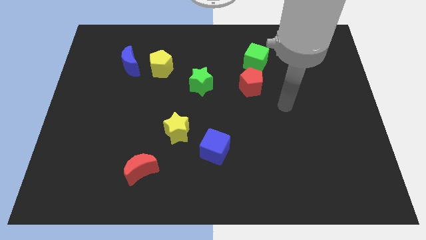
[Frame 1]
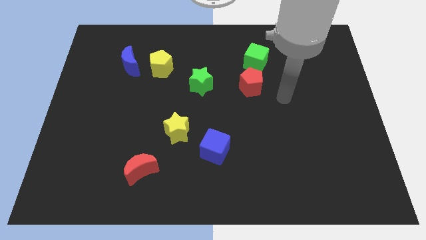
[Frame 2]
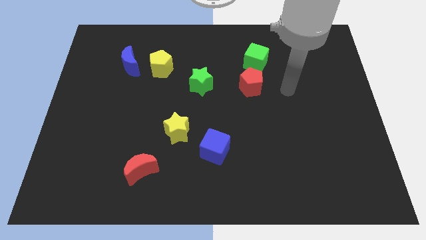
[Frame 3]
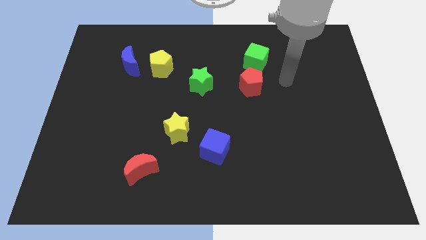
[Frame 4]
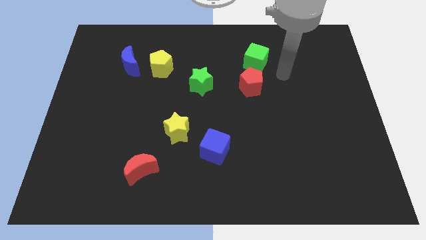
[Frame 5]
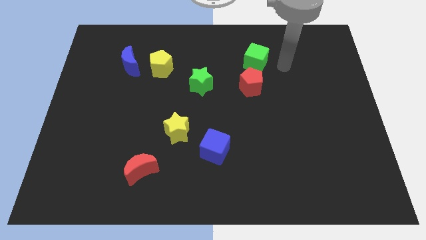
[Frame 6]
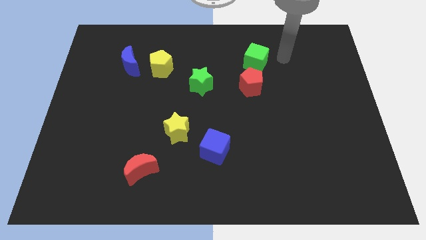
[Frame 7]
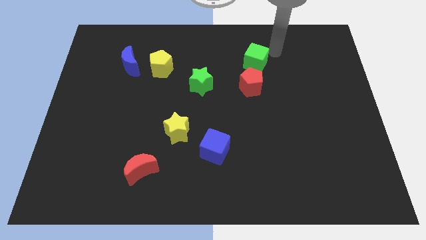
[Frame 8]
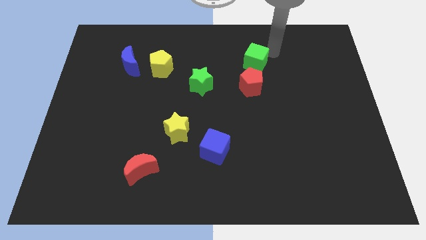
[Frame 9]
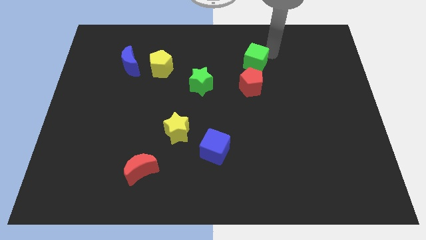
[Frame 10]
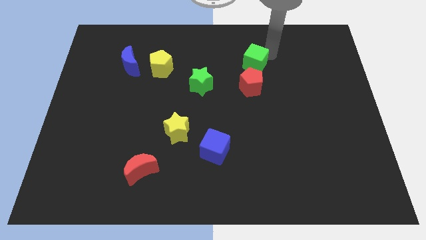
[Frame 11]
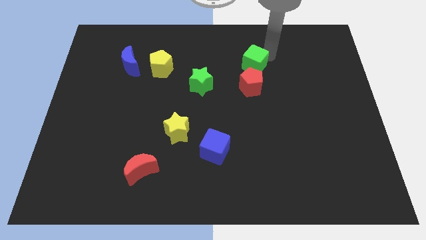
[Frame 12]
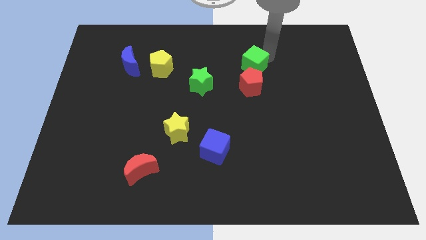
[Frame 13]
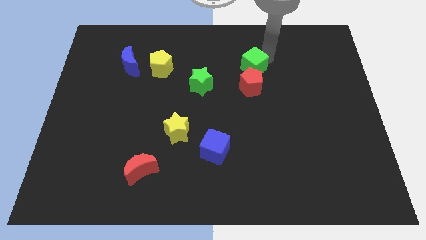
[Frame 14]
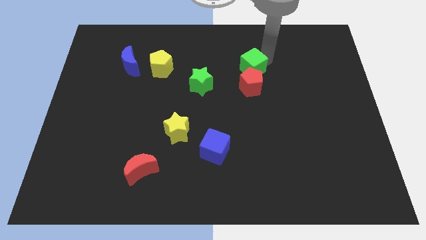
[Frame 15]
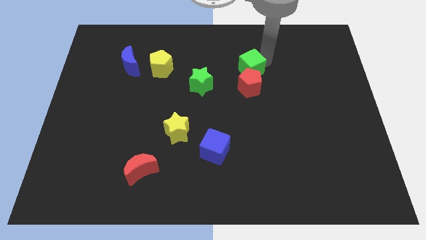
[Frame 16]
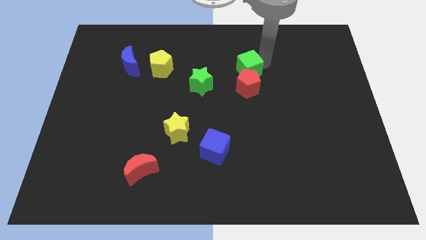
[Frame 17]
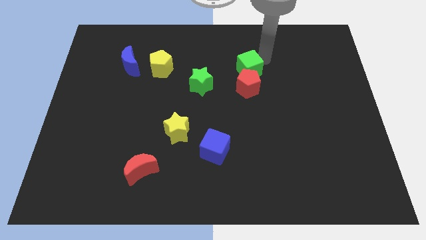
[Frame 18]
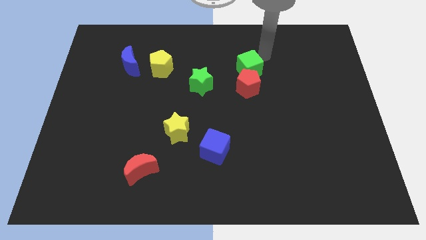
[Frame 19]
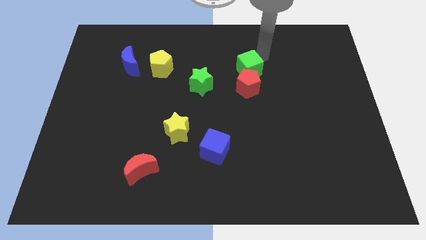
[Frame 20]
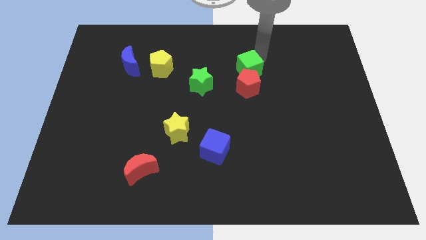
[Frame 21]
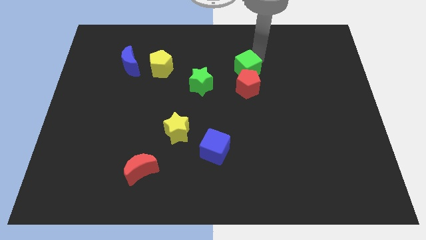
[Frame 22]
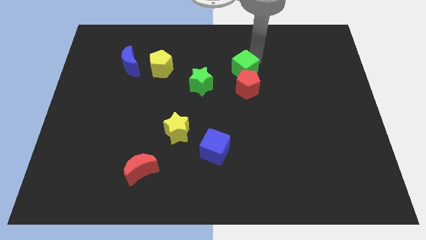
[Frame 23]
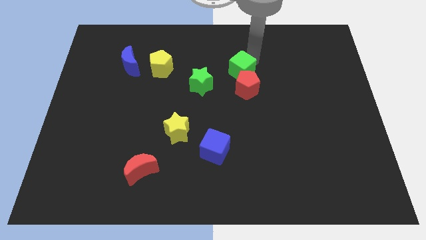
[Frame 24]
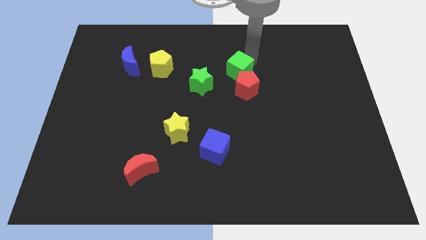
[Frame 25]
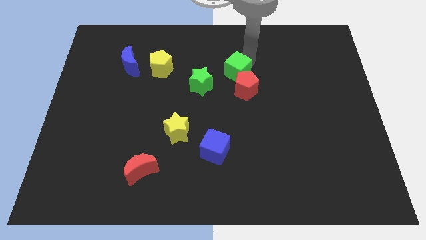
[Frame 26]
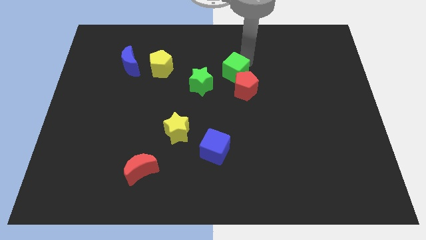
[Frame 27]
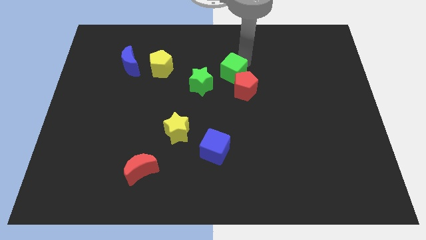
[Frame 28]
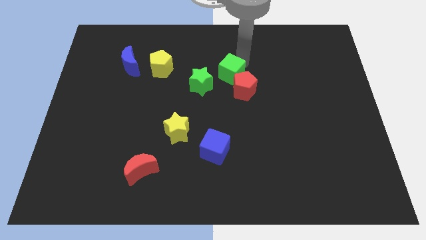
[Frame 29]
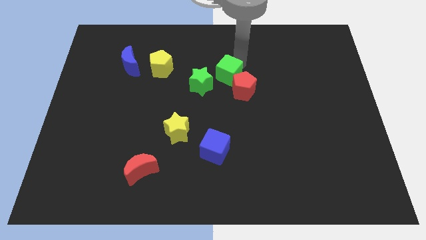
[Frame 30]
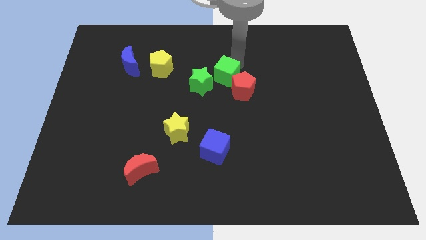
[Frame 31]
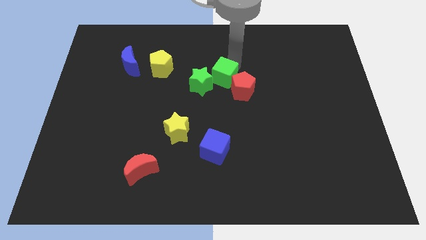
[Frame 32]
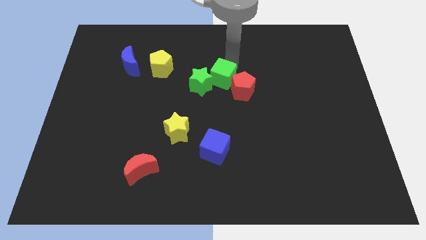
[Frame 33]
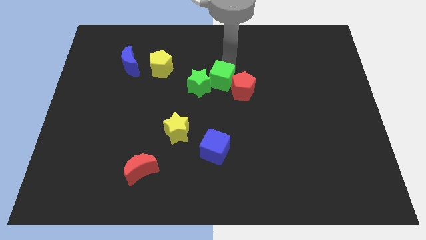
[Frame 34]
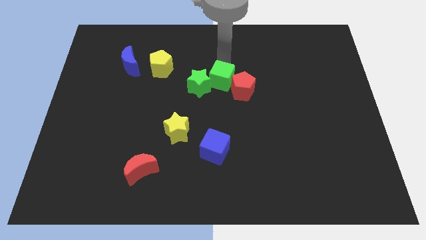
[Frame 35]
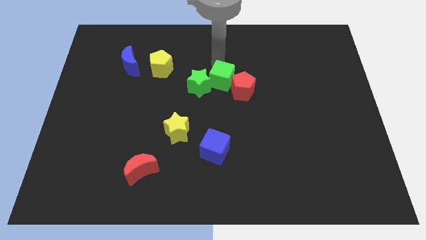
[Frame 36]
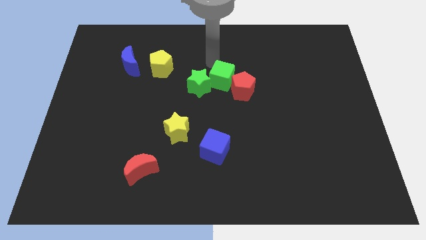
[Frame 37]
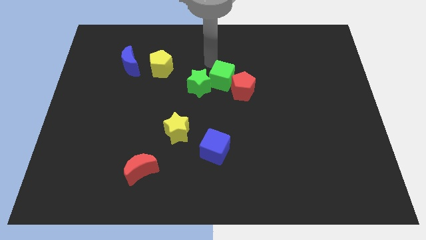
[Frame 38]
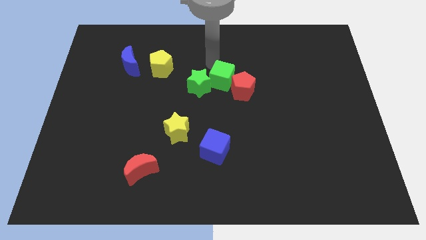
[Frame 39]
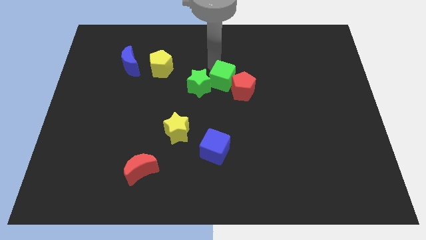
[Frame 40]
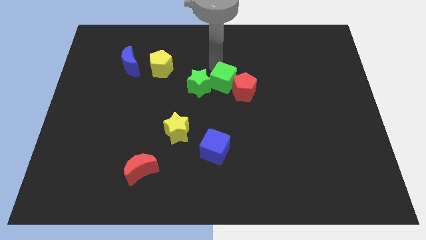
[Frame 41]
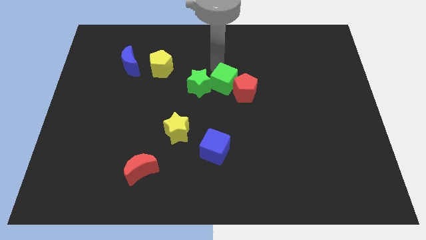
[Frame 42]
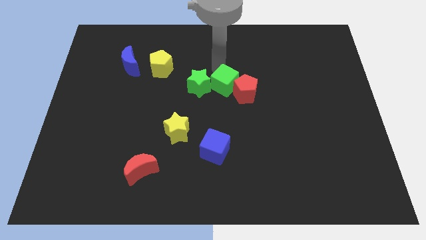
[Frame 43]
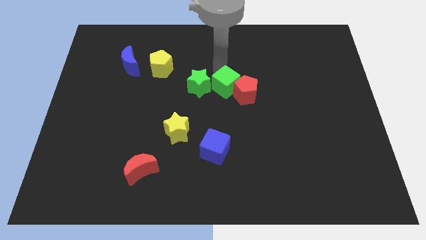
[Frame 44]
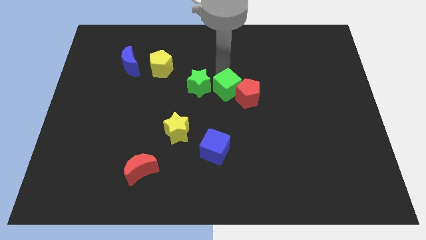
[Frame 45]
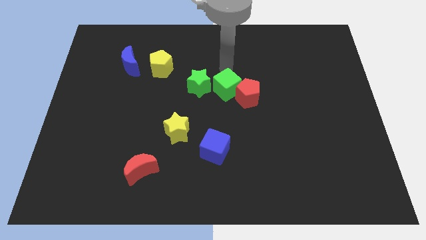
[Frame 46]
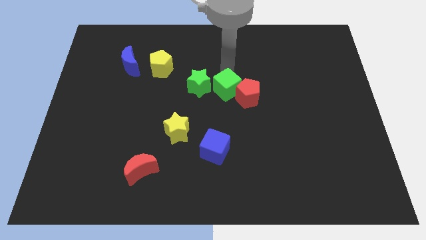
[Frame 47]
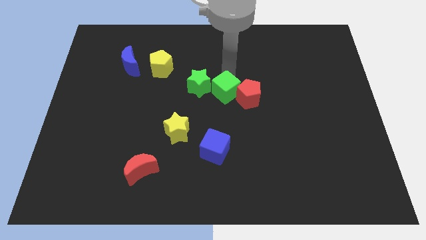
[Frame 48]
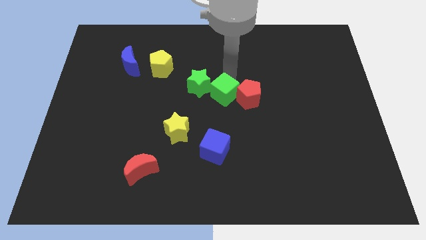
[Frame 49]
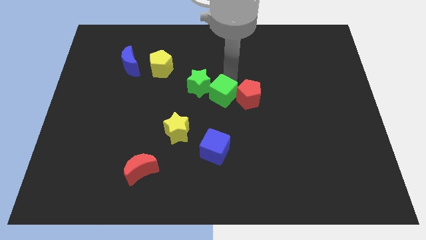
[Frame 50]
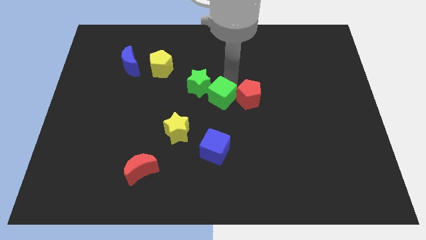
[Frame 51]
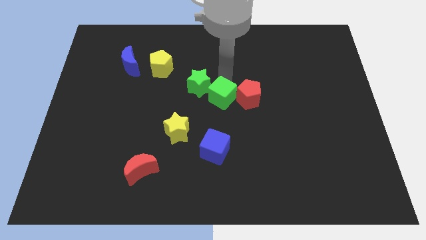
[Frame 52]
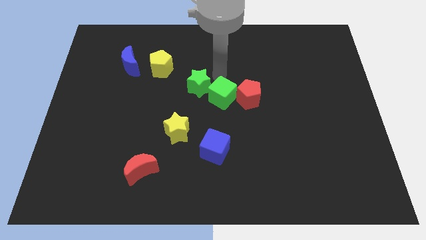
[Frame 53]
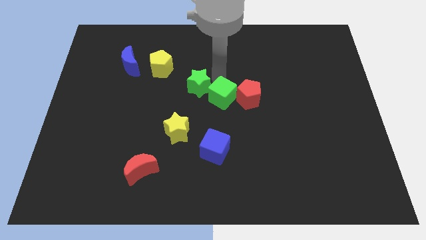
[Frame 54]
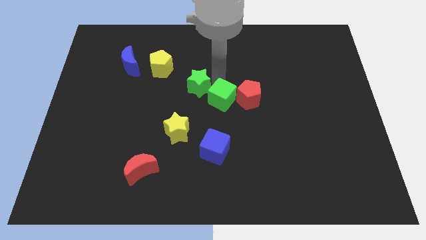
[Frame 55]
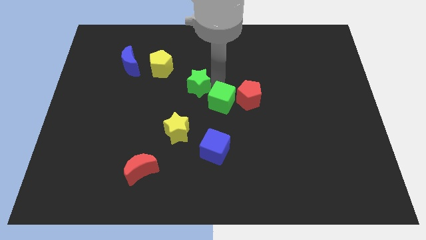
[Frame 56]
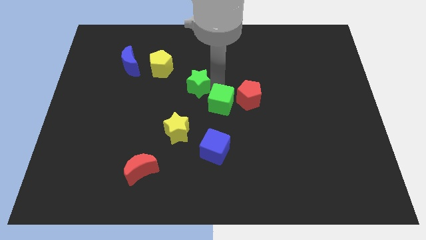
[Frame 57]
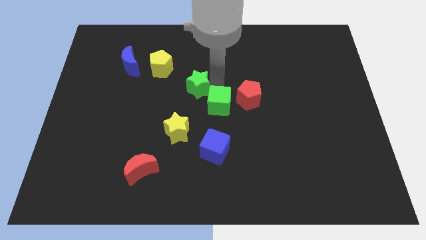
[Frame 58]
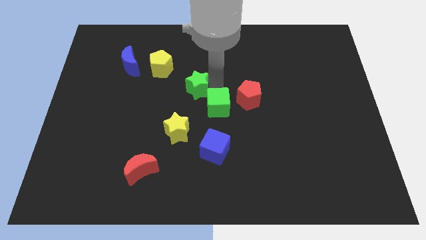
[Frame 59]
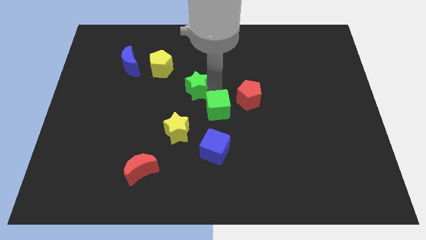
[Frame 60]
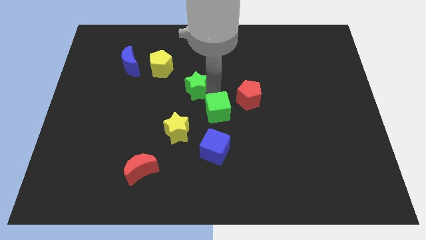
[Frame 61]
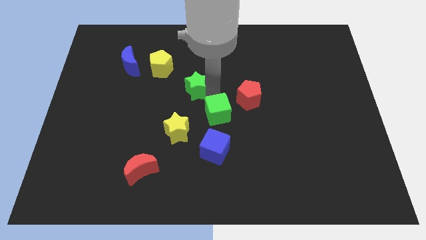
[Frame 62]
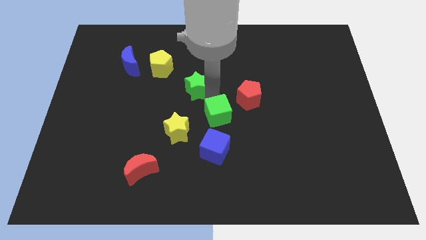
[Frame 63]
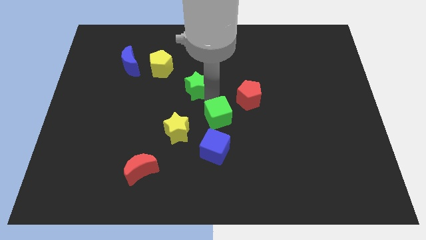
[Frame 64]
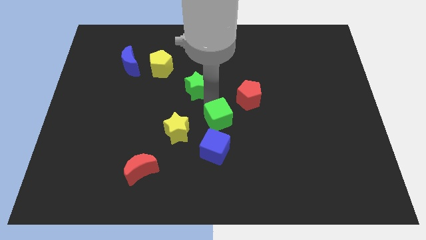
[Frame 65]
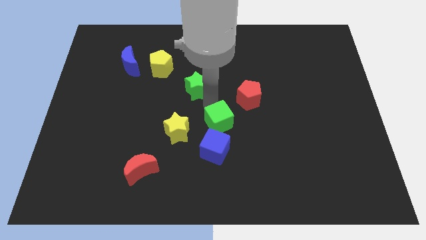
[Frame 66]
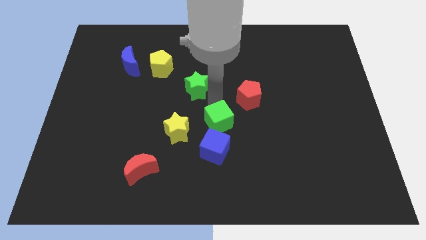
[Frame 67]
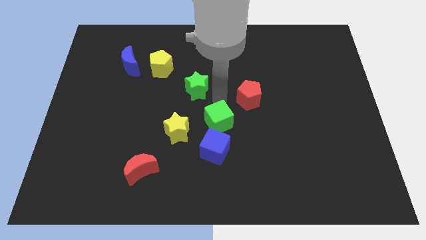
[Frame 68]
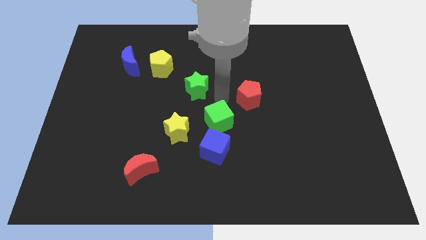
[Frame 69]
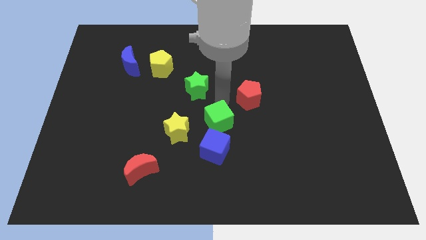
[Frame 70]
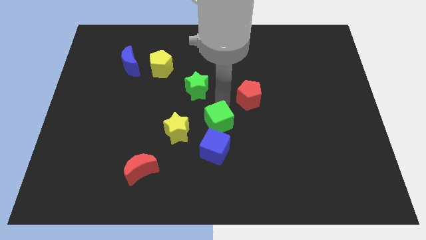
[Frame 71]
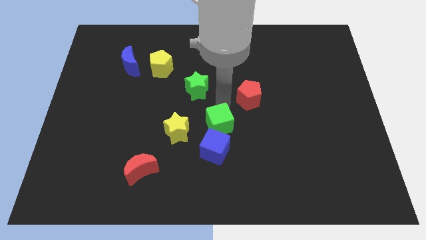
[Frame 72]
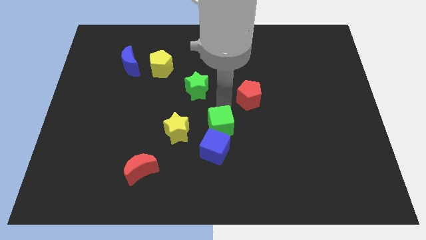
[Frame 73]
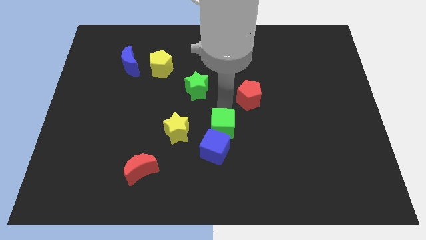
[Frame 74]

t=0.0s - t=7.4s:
put the green cube to the blue cube
